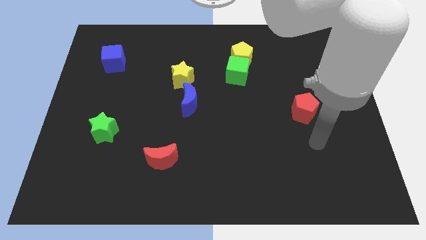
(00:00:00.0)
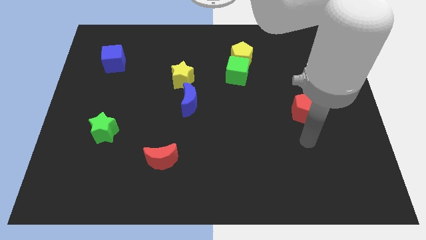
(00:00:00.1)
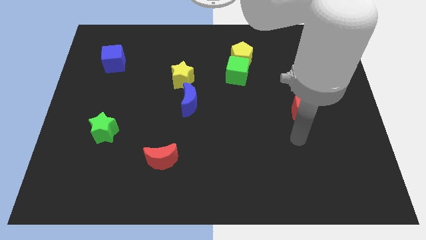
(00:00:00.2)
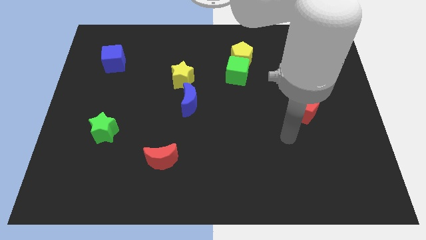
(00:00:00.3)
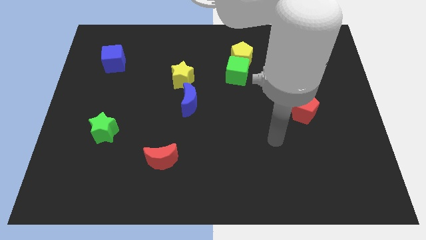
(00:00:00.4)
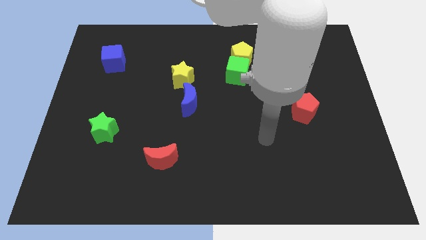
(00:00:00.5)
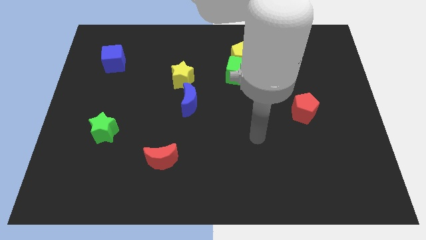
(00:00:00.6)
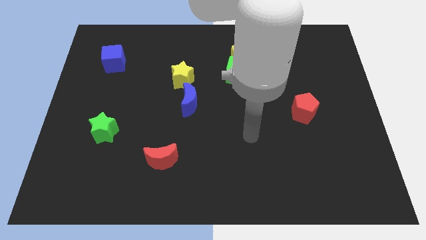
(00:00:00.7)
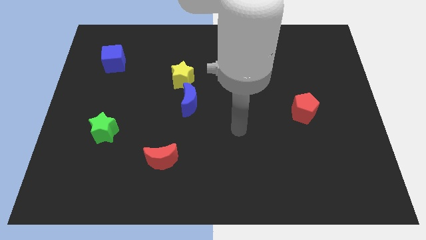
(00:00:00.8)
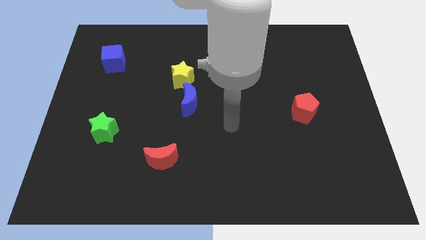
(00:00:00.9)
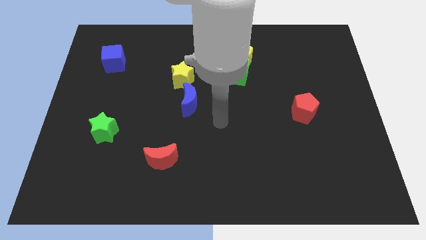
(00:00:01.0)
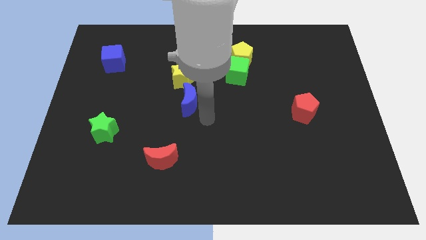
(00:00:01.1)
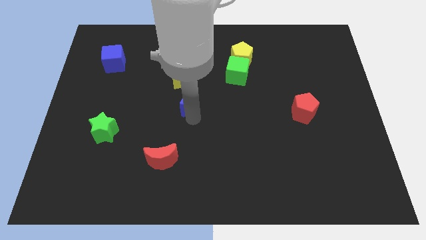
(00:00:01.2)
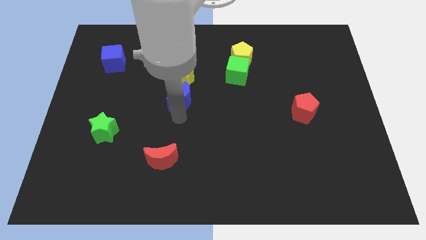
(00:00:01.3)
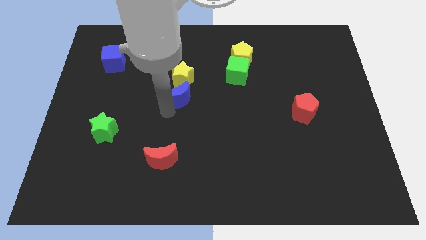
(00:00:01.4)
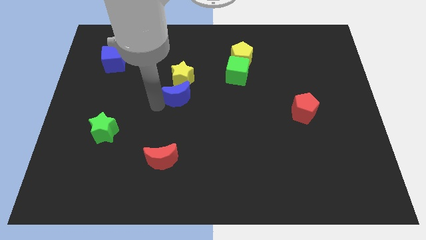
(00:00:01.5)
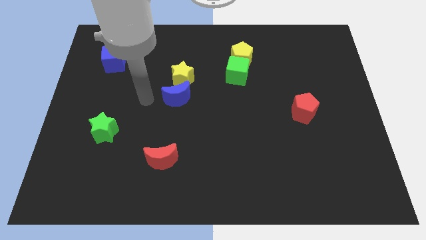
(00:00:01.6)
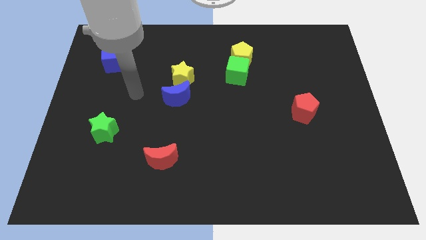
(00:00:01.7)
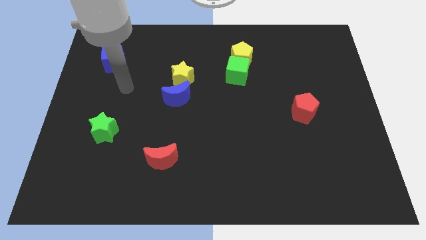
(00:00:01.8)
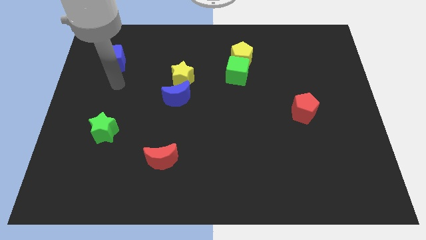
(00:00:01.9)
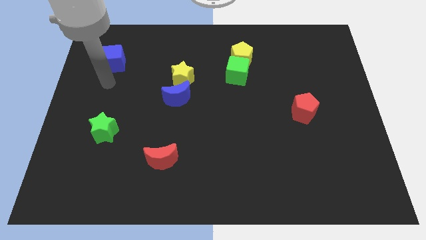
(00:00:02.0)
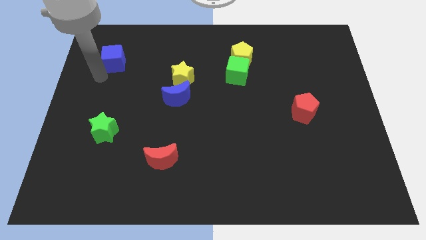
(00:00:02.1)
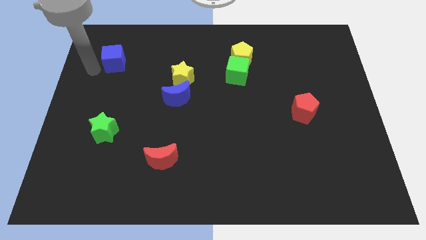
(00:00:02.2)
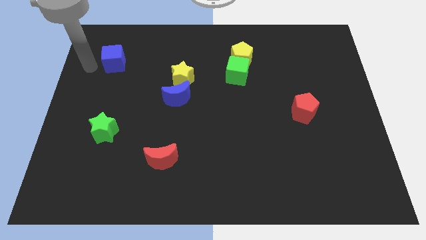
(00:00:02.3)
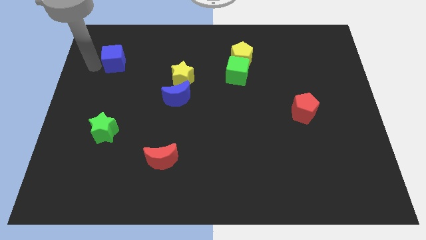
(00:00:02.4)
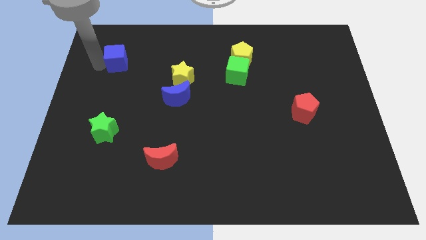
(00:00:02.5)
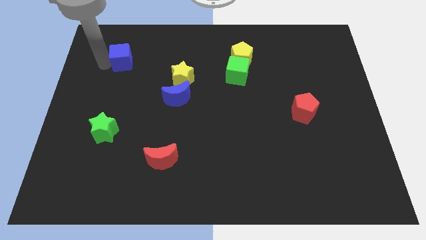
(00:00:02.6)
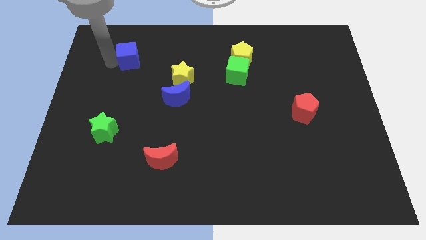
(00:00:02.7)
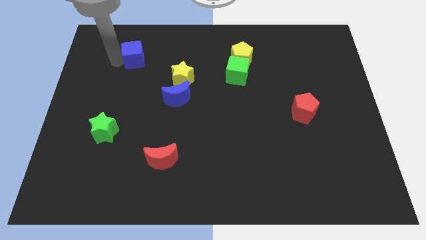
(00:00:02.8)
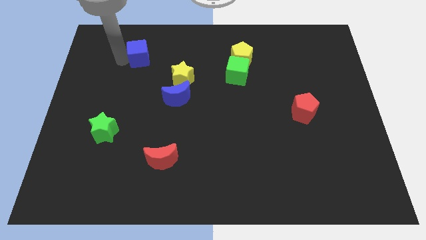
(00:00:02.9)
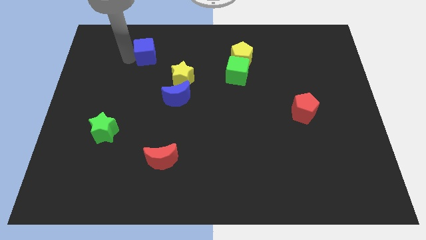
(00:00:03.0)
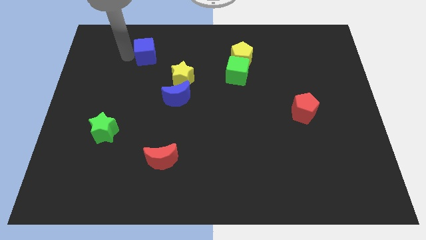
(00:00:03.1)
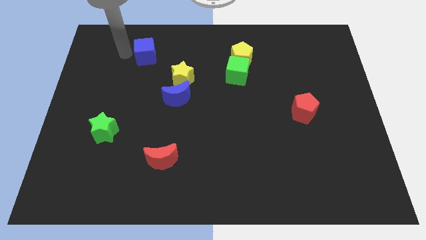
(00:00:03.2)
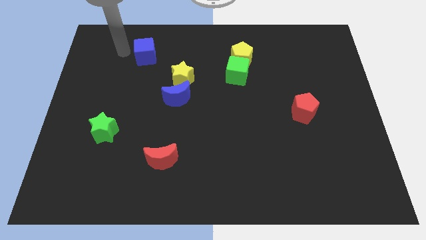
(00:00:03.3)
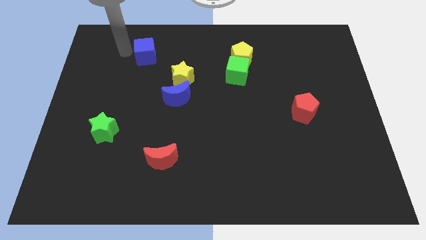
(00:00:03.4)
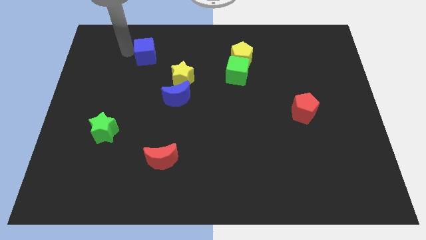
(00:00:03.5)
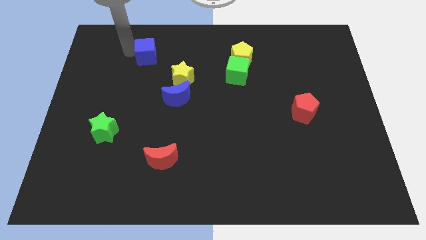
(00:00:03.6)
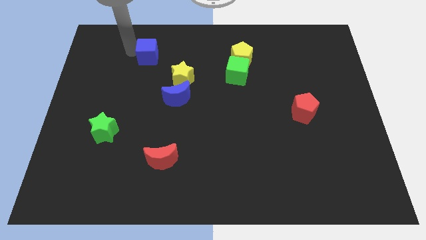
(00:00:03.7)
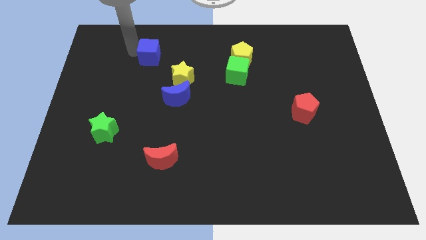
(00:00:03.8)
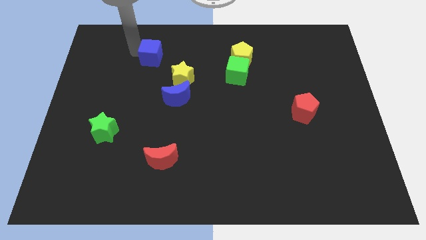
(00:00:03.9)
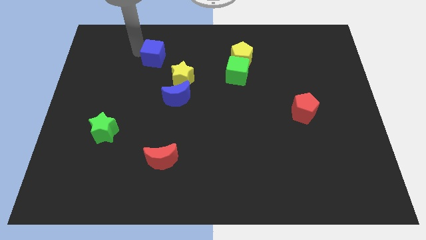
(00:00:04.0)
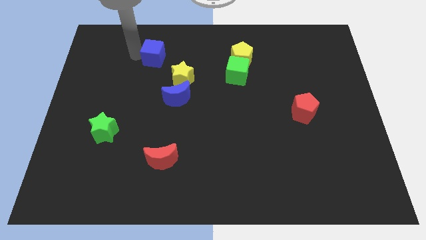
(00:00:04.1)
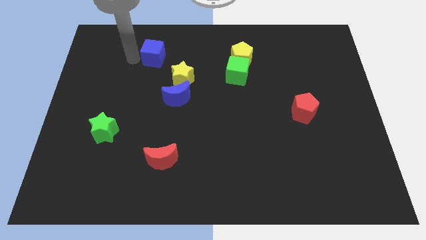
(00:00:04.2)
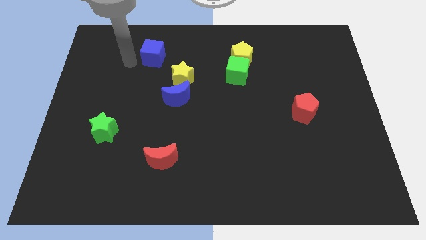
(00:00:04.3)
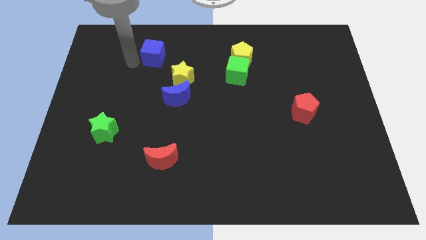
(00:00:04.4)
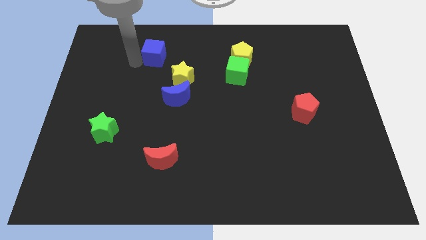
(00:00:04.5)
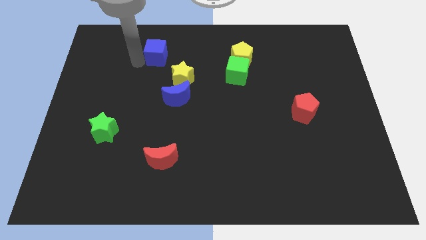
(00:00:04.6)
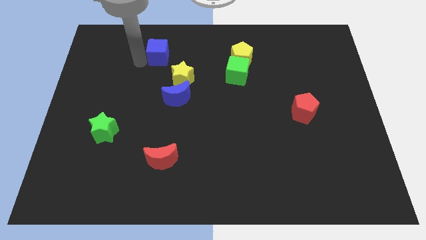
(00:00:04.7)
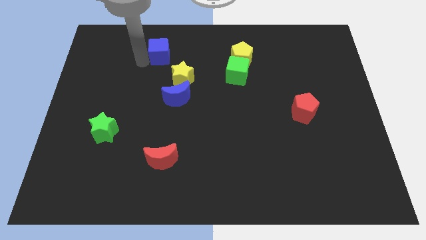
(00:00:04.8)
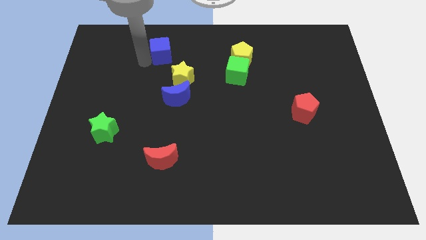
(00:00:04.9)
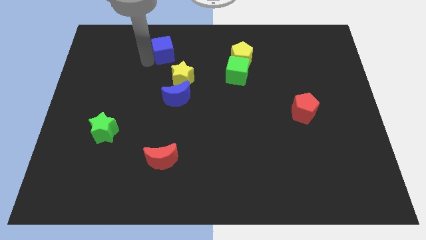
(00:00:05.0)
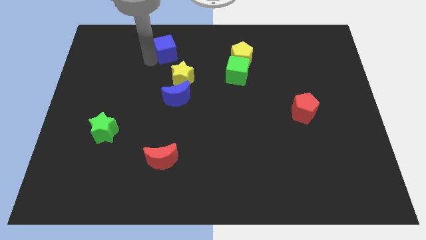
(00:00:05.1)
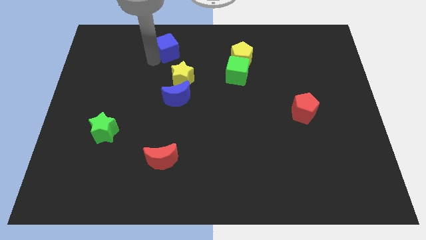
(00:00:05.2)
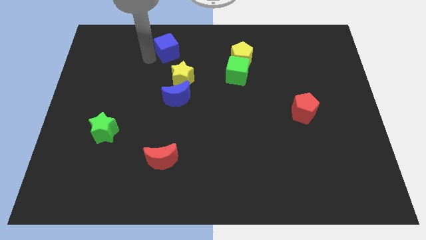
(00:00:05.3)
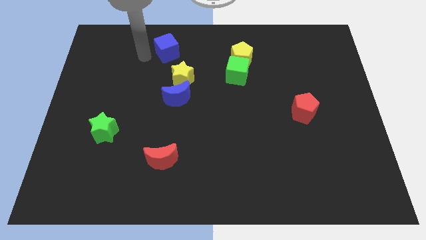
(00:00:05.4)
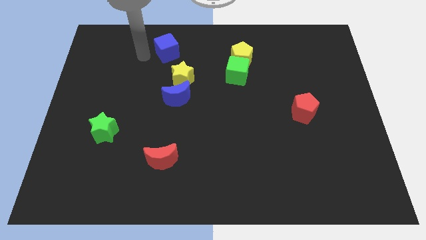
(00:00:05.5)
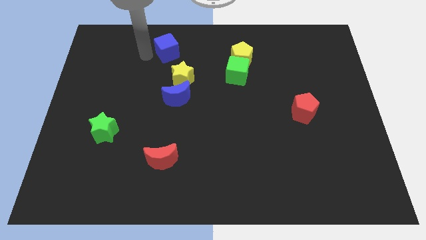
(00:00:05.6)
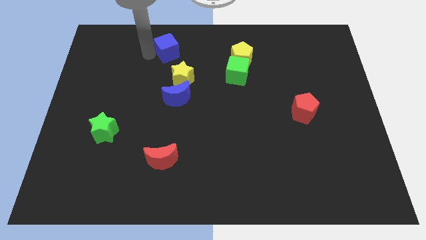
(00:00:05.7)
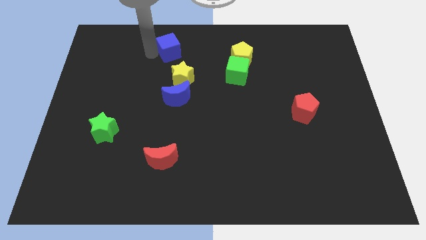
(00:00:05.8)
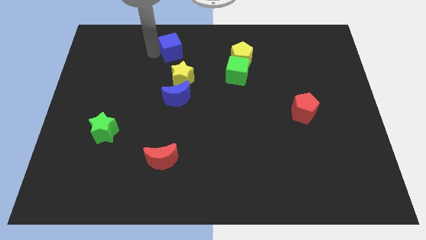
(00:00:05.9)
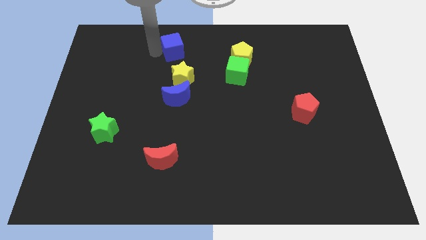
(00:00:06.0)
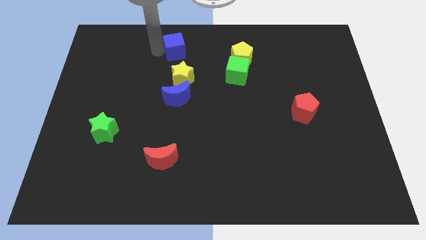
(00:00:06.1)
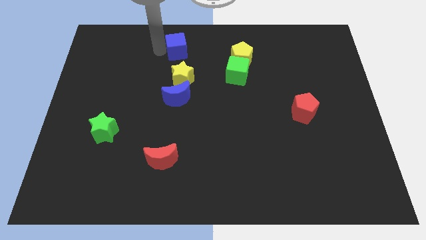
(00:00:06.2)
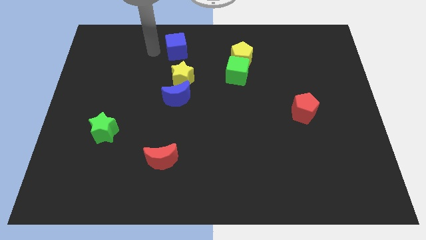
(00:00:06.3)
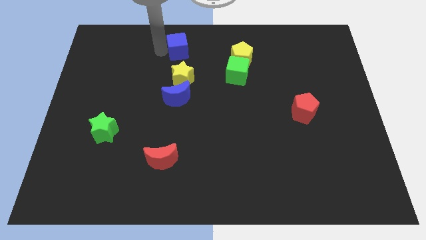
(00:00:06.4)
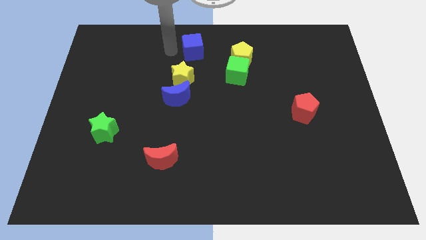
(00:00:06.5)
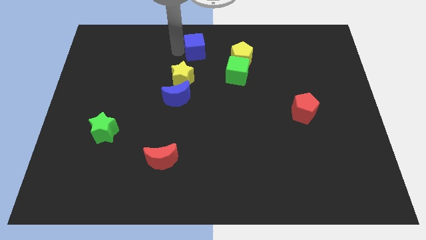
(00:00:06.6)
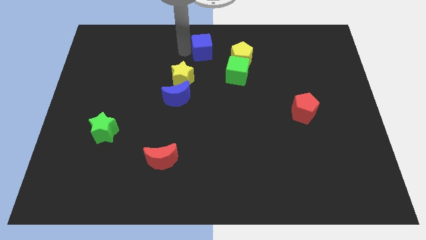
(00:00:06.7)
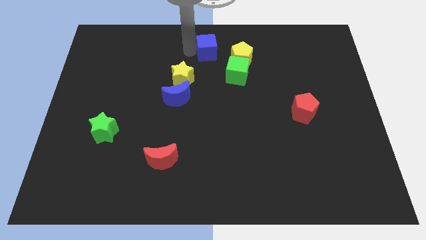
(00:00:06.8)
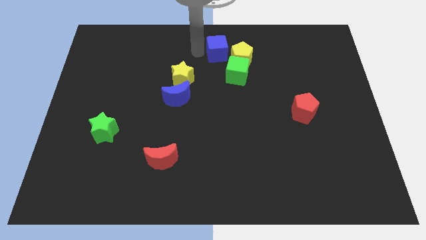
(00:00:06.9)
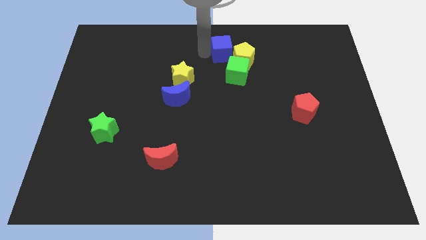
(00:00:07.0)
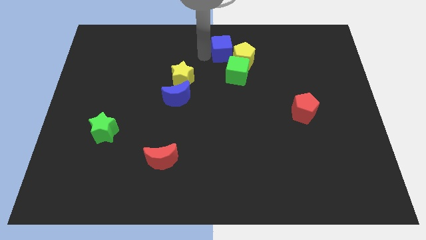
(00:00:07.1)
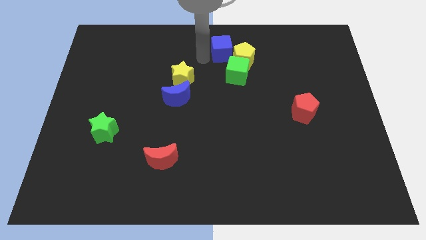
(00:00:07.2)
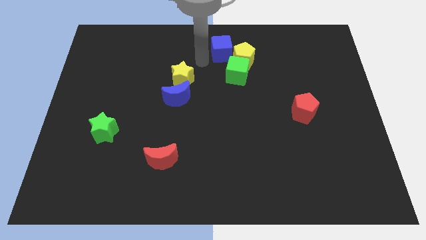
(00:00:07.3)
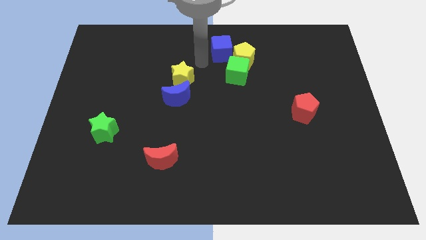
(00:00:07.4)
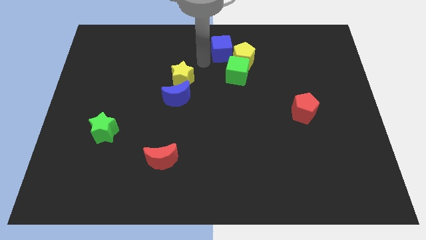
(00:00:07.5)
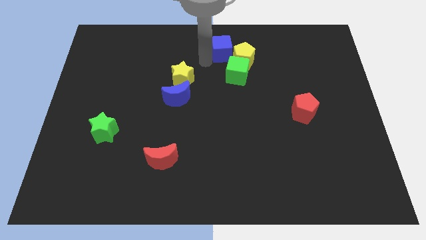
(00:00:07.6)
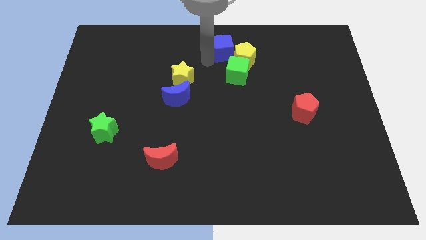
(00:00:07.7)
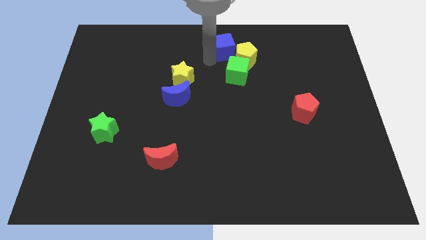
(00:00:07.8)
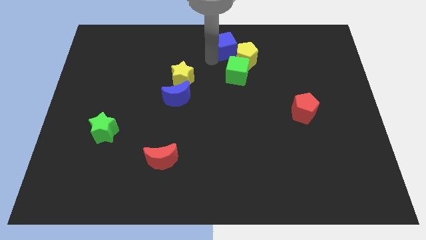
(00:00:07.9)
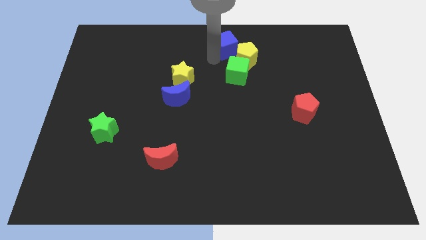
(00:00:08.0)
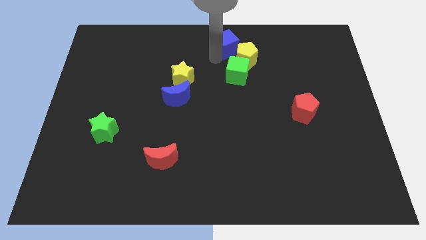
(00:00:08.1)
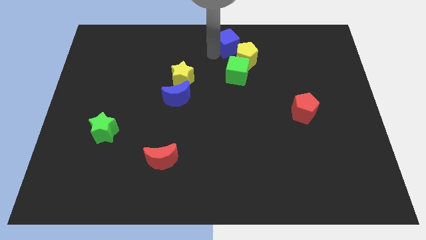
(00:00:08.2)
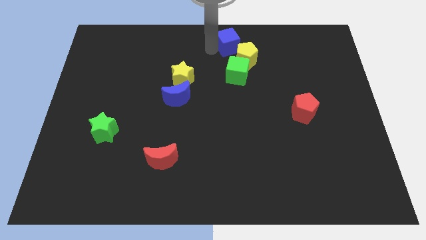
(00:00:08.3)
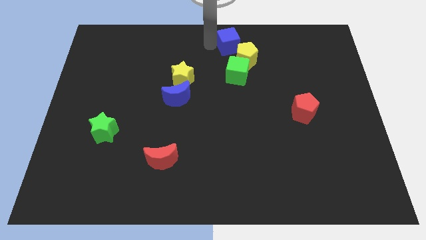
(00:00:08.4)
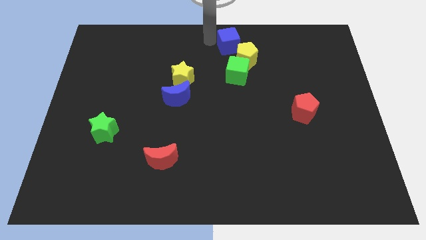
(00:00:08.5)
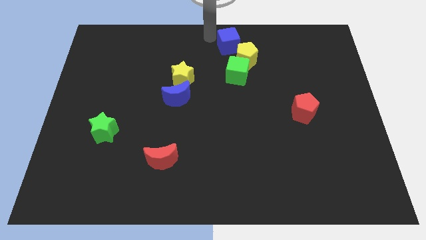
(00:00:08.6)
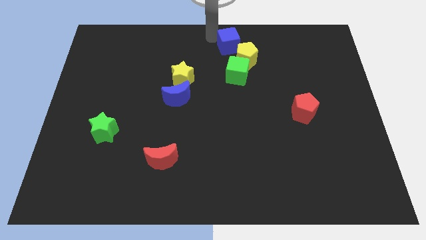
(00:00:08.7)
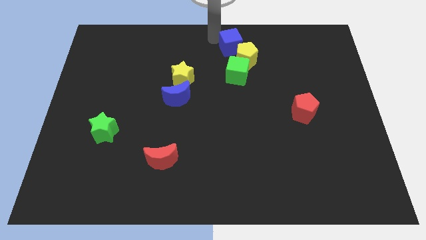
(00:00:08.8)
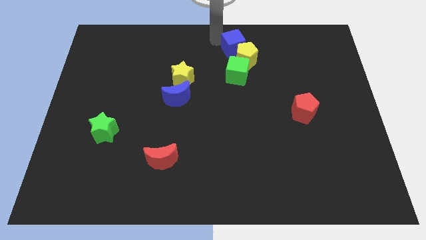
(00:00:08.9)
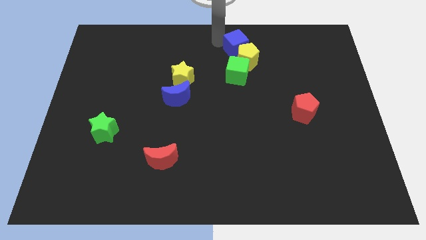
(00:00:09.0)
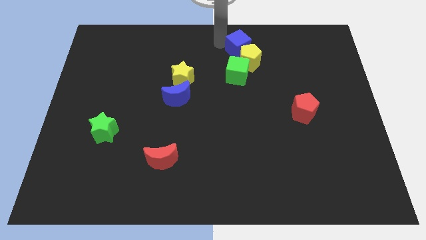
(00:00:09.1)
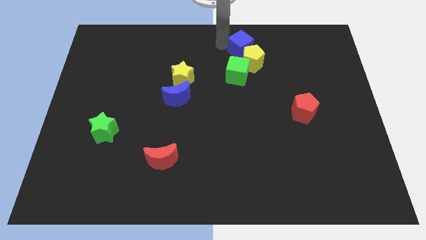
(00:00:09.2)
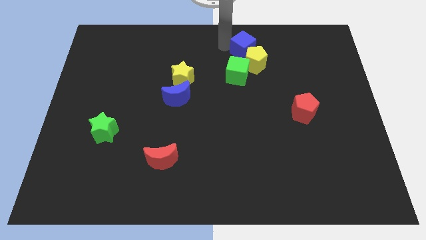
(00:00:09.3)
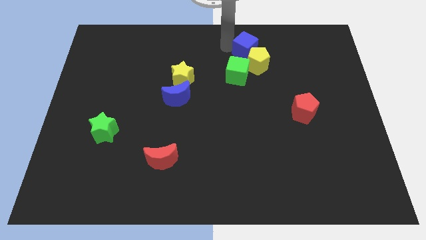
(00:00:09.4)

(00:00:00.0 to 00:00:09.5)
slide the blue cube to the top right side of the green cube
